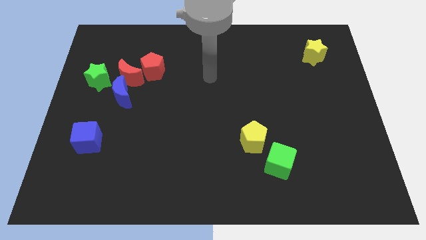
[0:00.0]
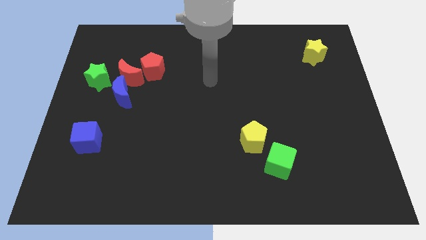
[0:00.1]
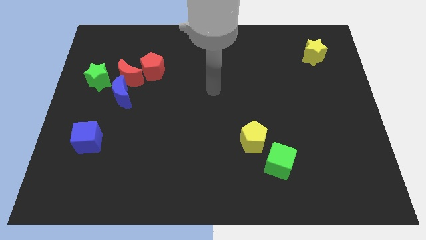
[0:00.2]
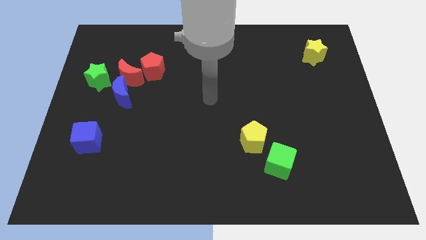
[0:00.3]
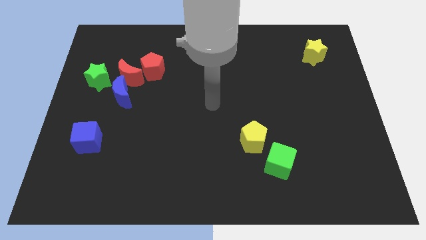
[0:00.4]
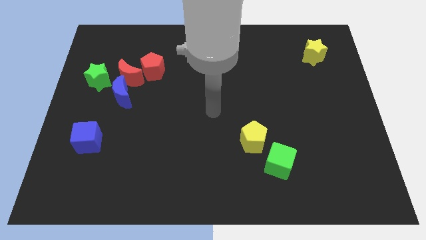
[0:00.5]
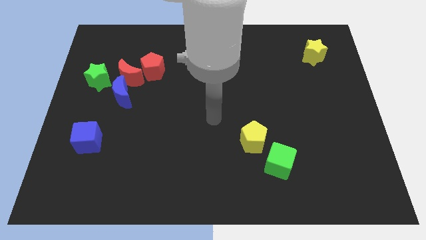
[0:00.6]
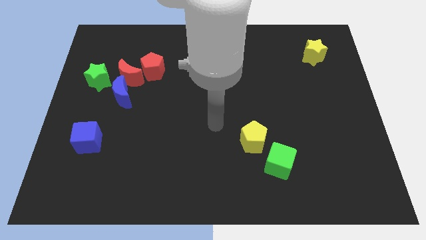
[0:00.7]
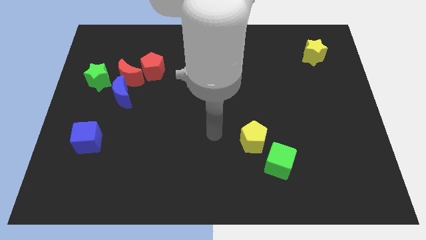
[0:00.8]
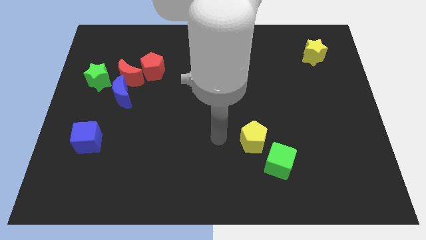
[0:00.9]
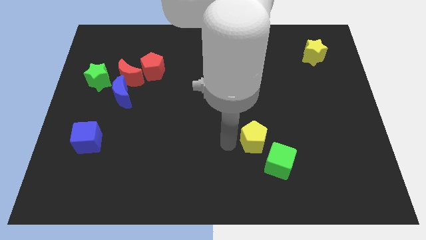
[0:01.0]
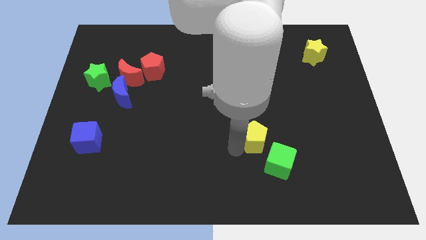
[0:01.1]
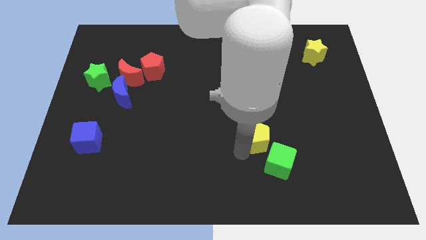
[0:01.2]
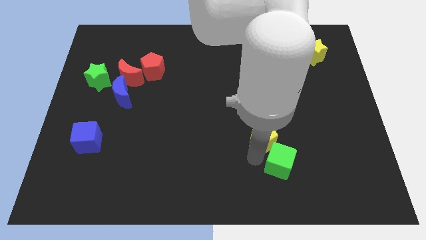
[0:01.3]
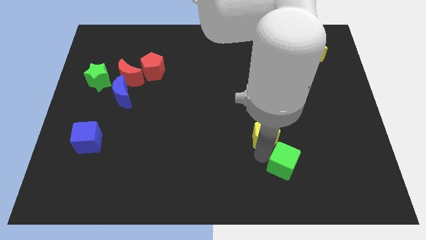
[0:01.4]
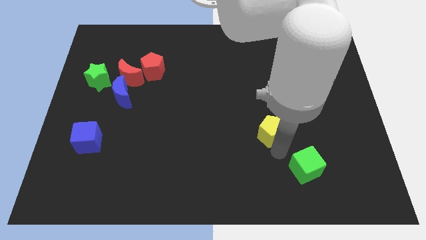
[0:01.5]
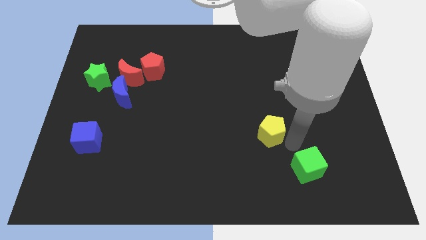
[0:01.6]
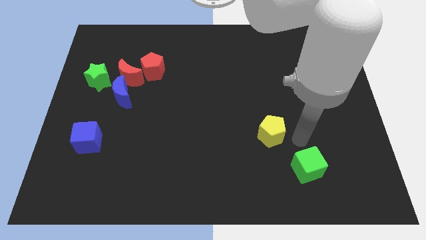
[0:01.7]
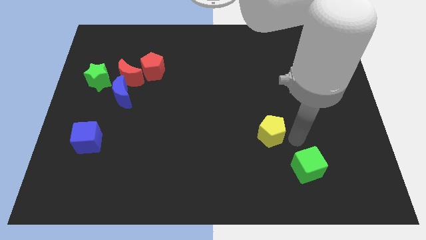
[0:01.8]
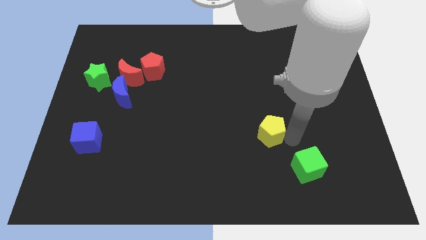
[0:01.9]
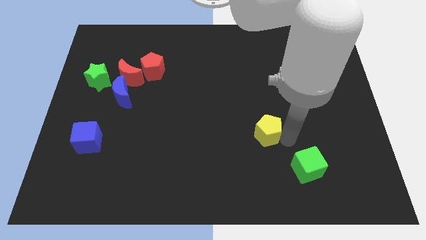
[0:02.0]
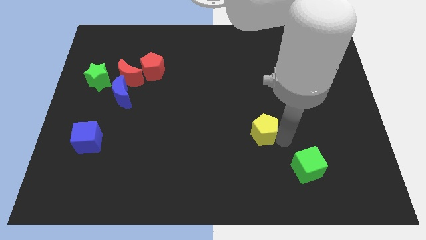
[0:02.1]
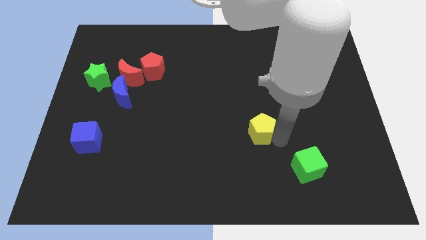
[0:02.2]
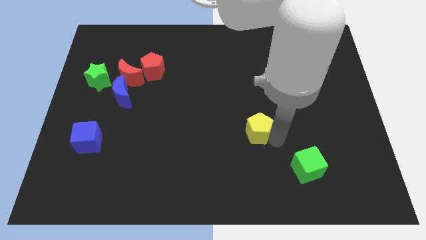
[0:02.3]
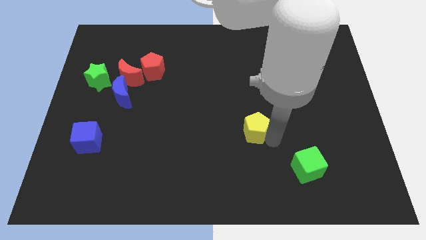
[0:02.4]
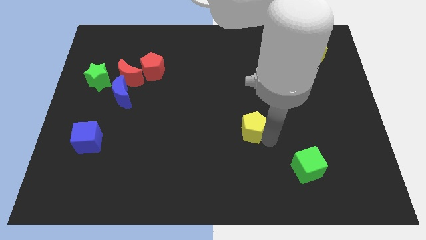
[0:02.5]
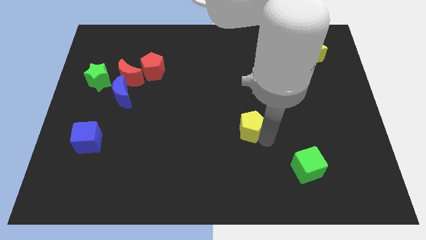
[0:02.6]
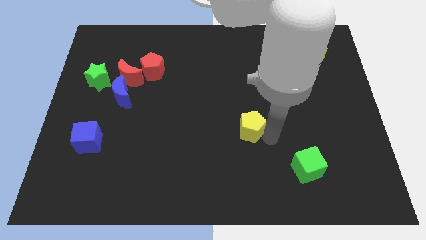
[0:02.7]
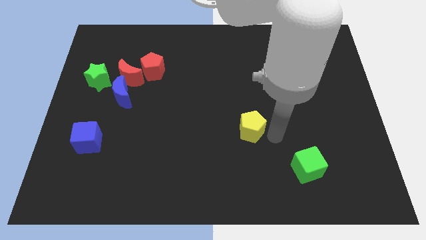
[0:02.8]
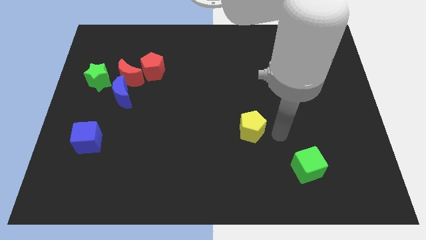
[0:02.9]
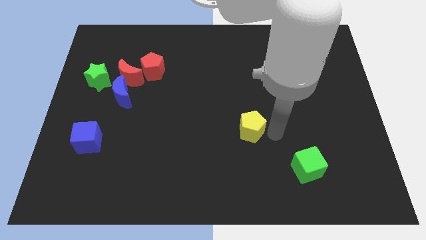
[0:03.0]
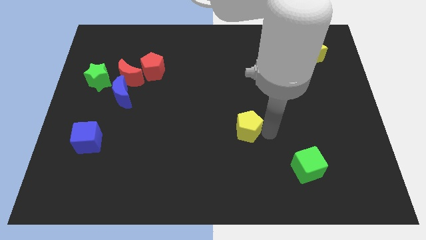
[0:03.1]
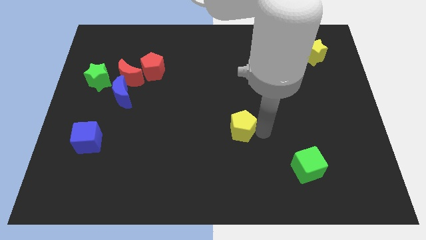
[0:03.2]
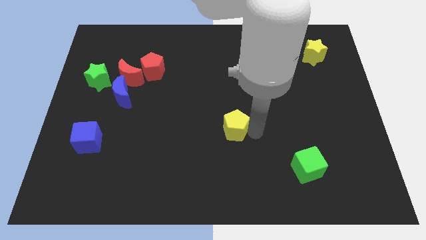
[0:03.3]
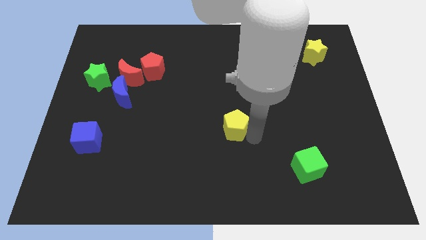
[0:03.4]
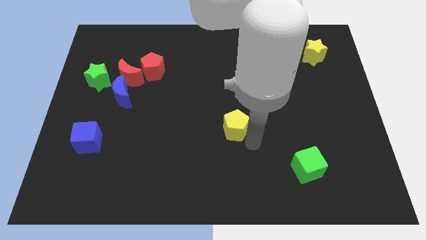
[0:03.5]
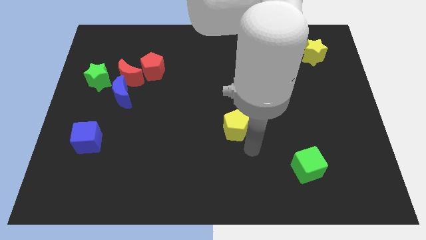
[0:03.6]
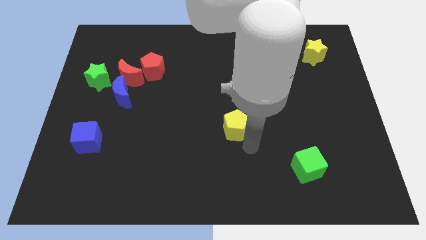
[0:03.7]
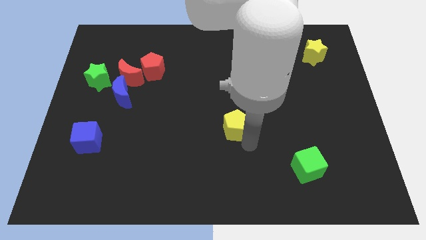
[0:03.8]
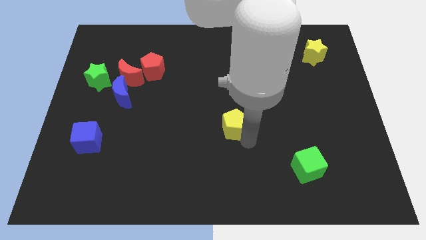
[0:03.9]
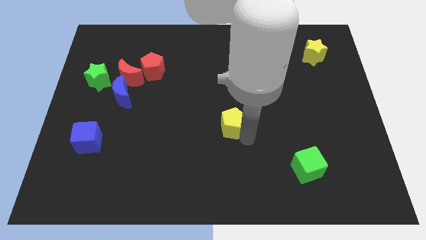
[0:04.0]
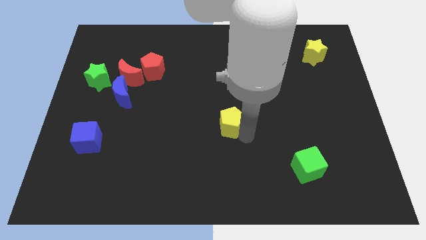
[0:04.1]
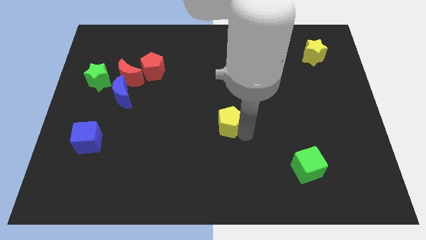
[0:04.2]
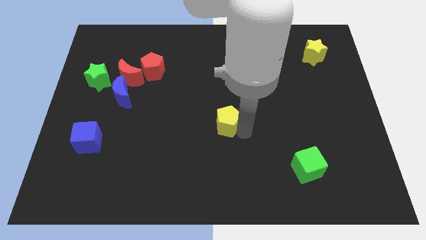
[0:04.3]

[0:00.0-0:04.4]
move the yellow pentagon a little diagonally upwards and to the left

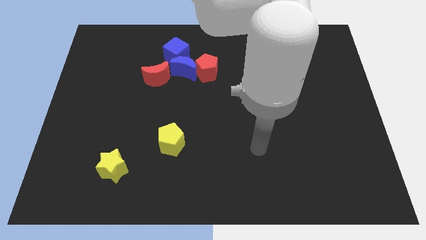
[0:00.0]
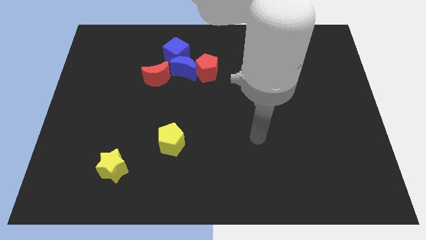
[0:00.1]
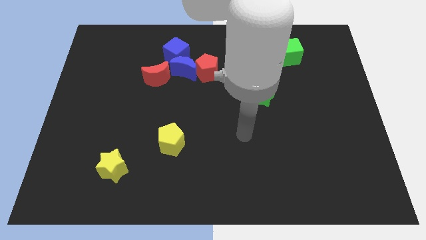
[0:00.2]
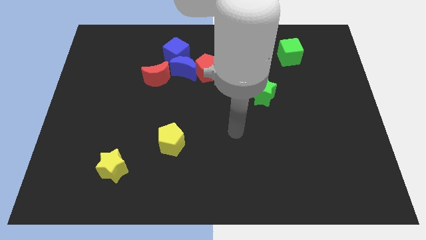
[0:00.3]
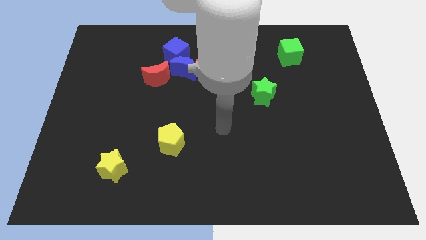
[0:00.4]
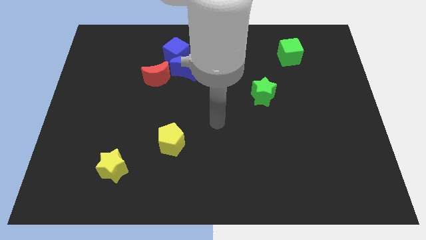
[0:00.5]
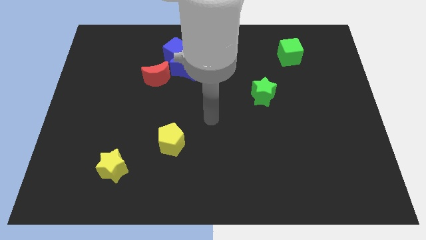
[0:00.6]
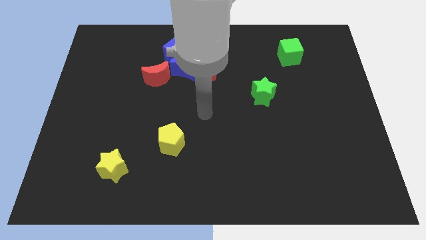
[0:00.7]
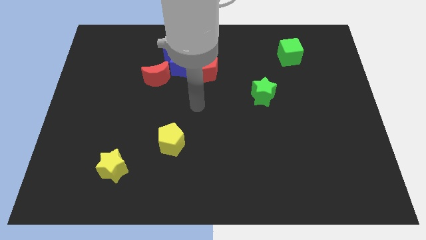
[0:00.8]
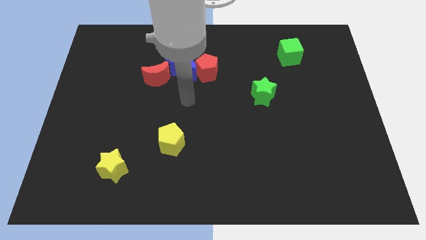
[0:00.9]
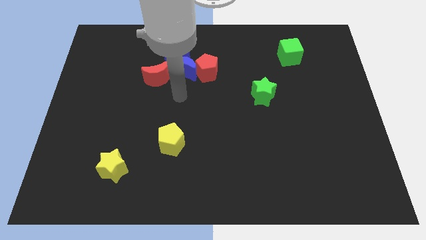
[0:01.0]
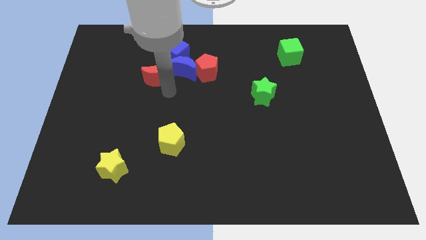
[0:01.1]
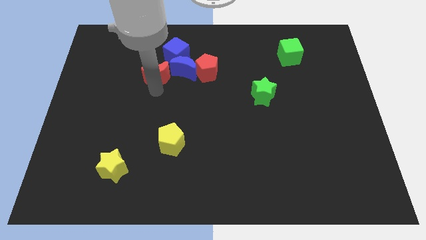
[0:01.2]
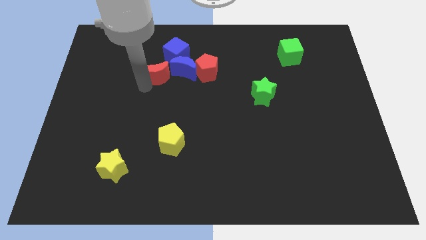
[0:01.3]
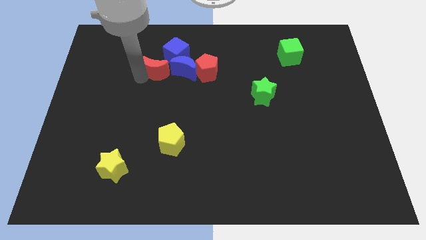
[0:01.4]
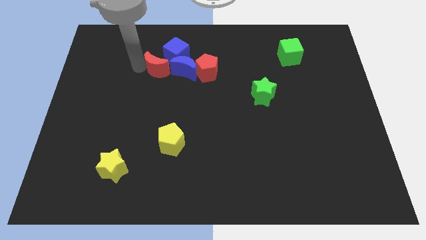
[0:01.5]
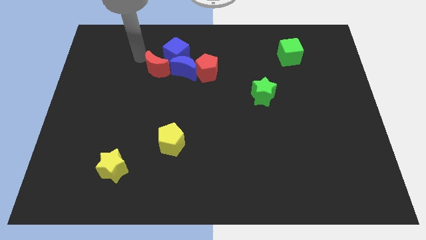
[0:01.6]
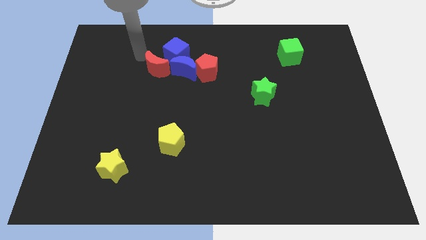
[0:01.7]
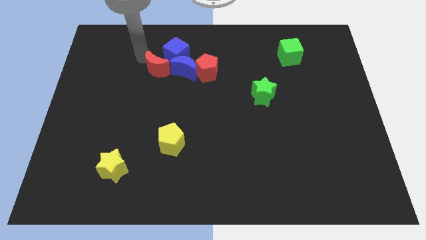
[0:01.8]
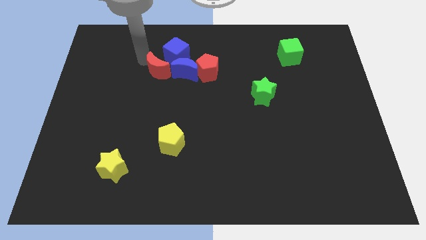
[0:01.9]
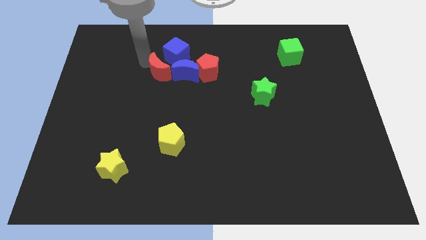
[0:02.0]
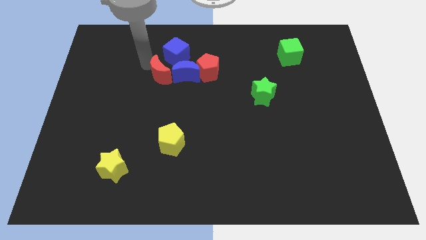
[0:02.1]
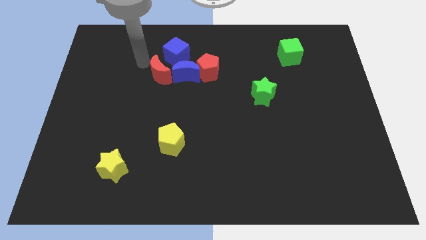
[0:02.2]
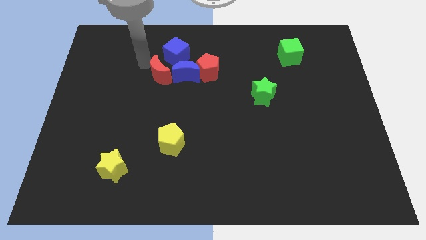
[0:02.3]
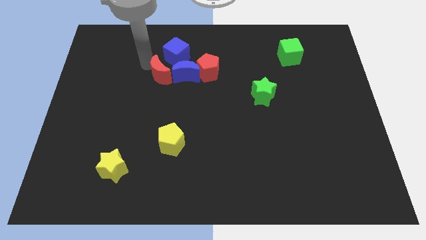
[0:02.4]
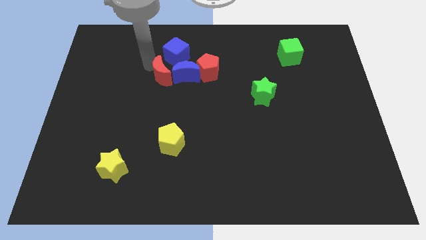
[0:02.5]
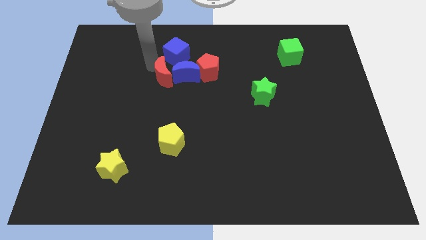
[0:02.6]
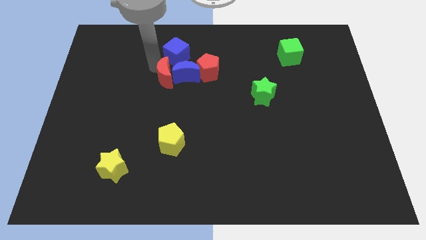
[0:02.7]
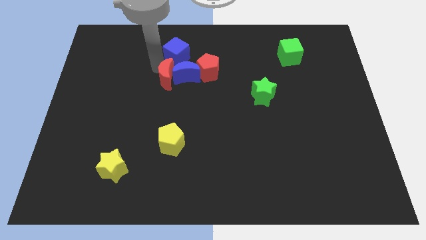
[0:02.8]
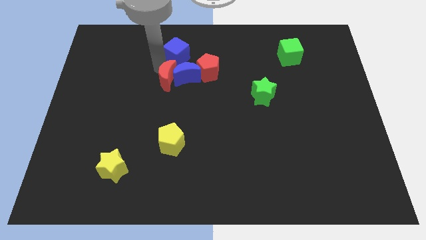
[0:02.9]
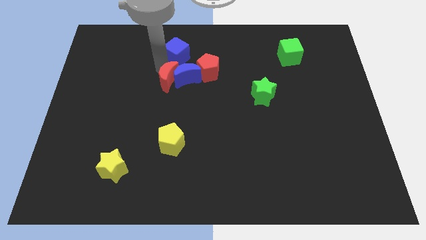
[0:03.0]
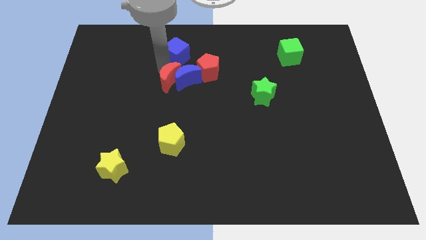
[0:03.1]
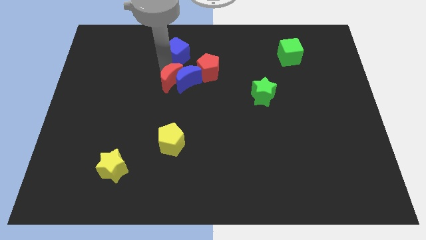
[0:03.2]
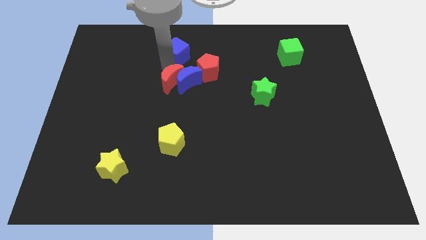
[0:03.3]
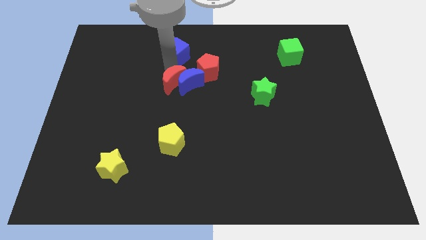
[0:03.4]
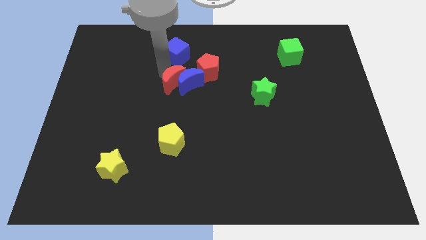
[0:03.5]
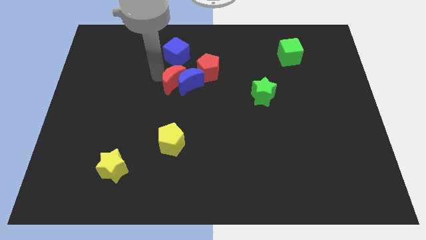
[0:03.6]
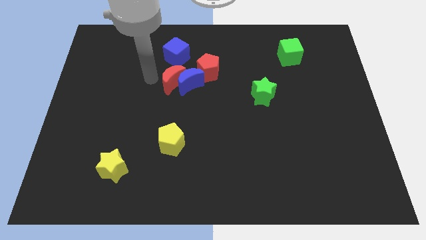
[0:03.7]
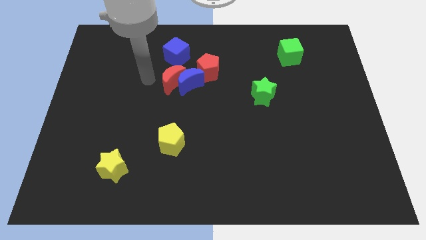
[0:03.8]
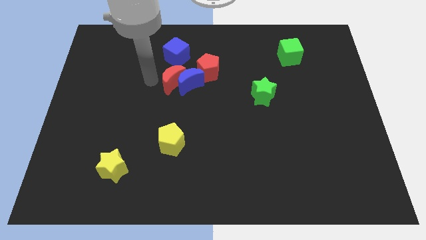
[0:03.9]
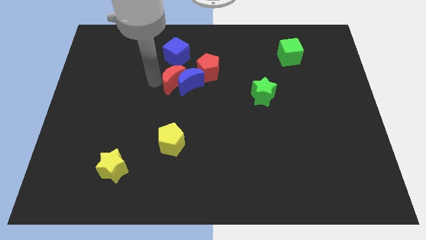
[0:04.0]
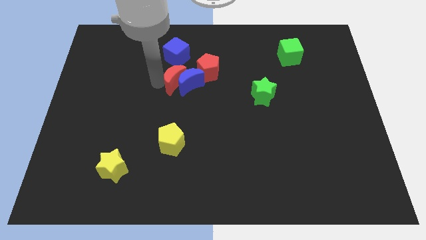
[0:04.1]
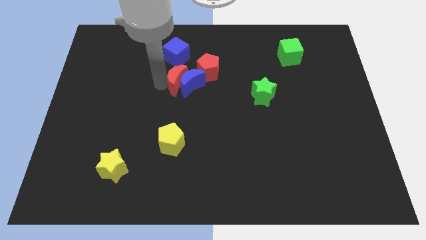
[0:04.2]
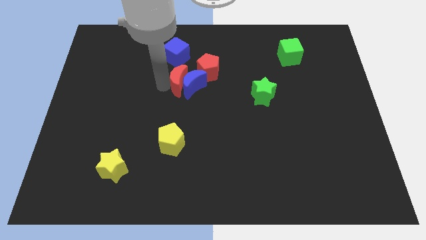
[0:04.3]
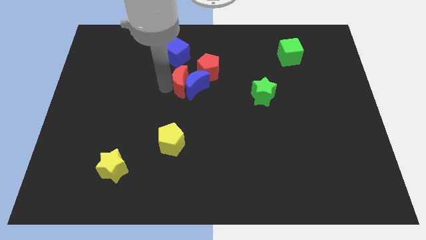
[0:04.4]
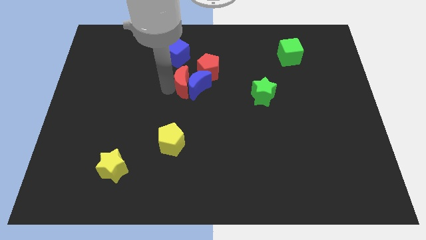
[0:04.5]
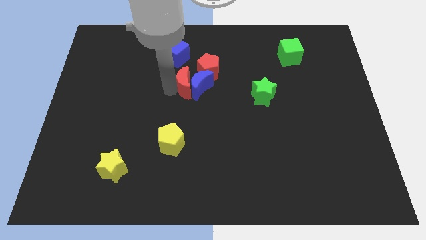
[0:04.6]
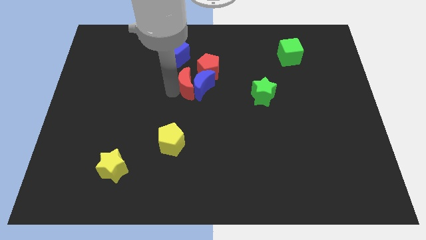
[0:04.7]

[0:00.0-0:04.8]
slightly slide the red moon right
